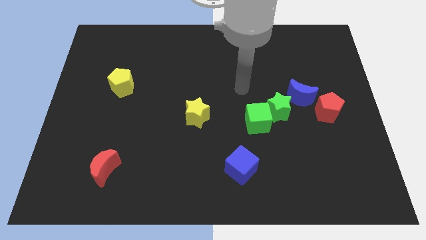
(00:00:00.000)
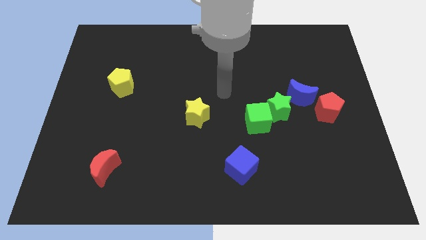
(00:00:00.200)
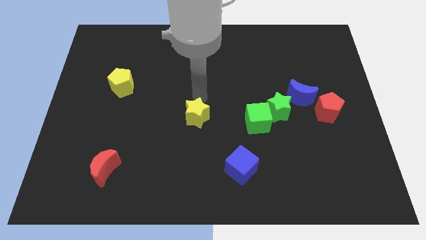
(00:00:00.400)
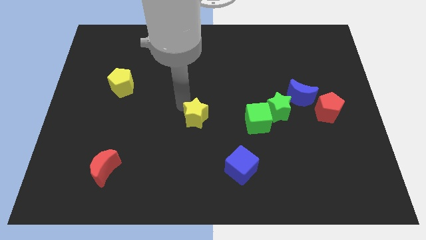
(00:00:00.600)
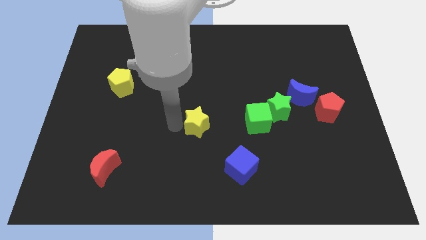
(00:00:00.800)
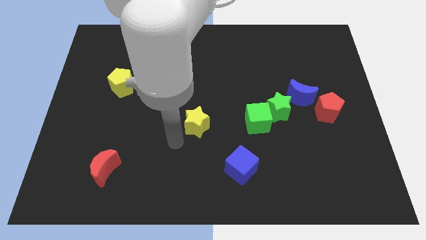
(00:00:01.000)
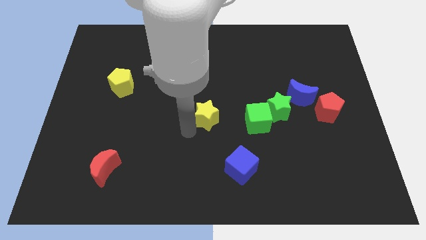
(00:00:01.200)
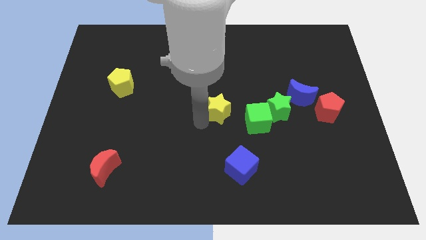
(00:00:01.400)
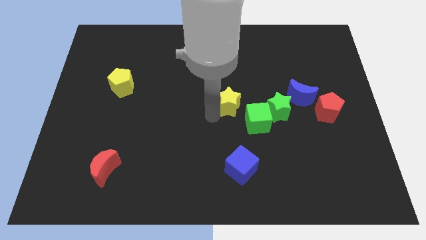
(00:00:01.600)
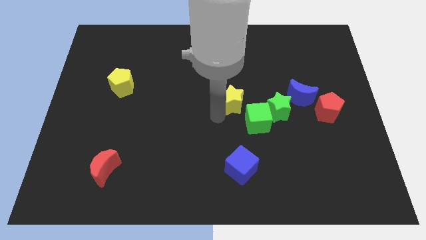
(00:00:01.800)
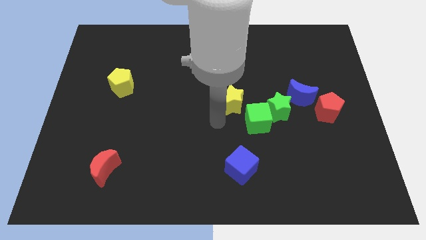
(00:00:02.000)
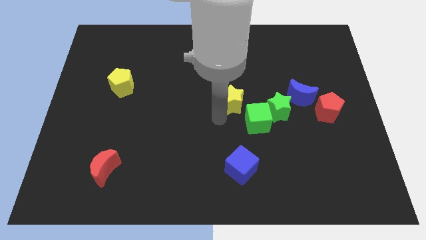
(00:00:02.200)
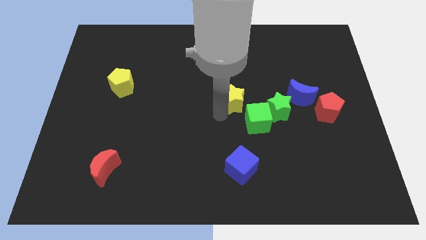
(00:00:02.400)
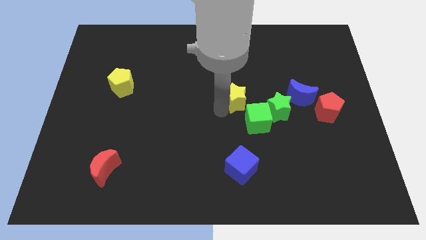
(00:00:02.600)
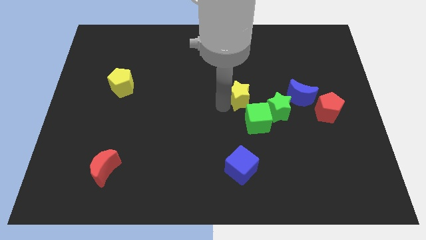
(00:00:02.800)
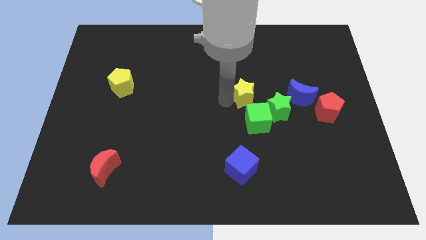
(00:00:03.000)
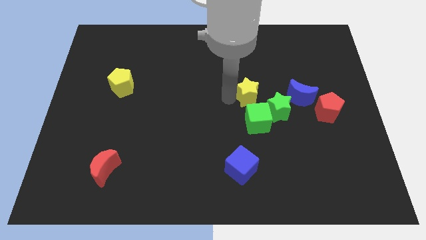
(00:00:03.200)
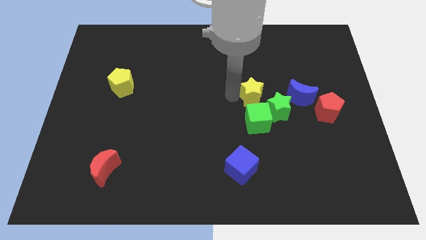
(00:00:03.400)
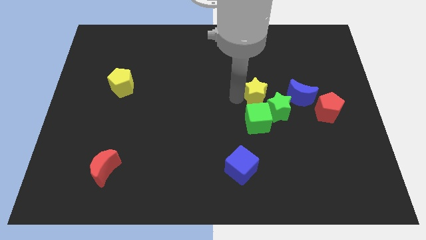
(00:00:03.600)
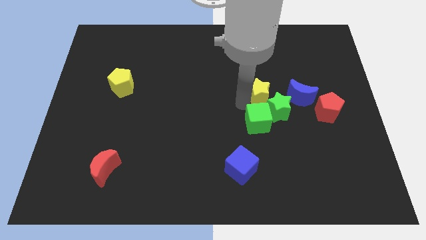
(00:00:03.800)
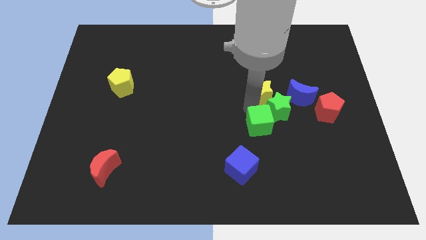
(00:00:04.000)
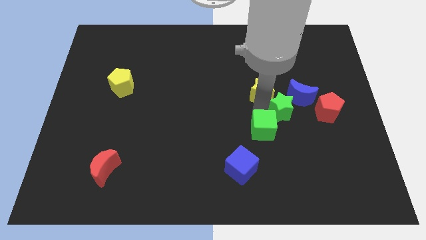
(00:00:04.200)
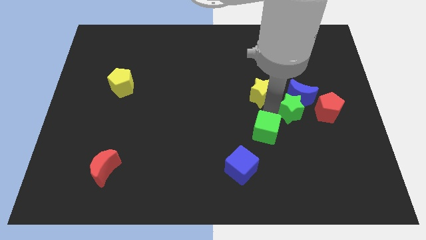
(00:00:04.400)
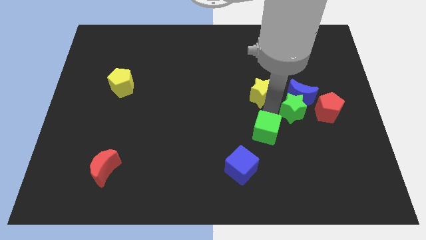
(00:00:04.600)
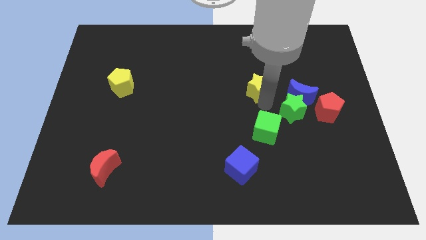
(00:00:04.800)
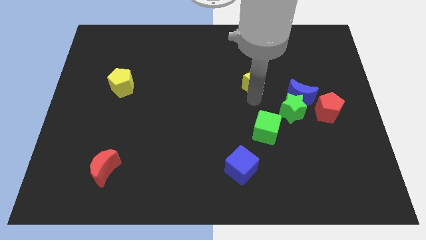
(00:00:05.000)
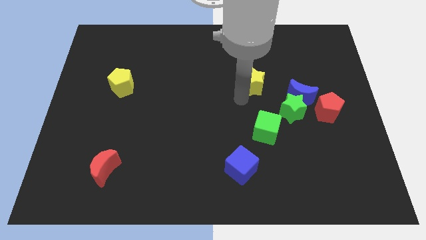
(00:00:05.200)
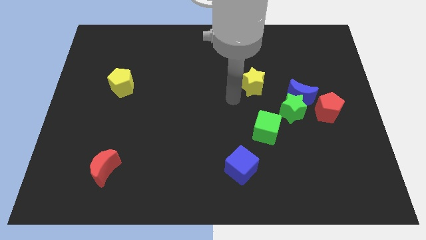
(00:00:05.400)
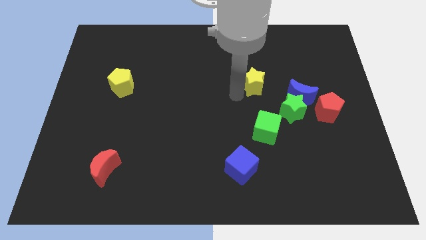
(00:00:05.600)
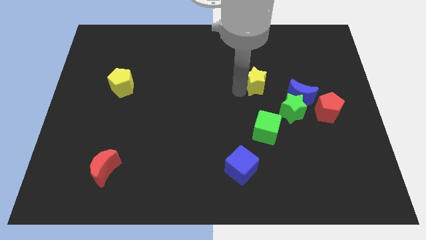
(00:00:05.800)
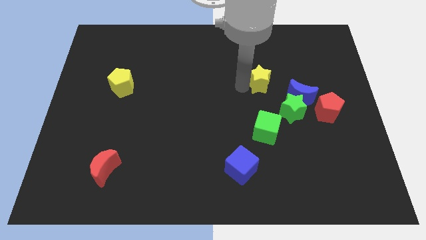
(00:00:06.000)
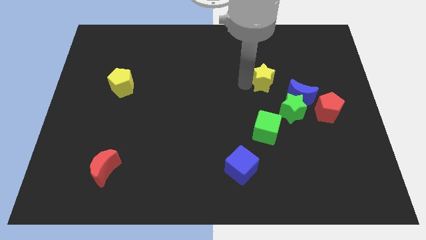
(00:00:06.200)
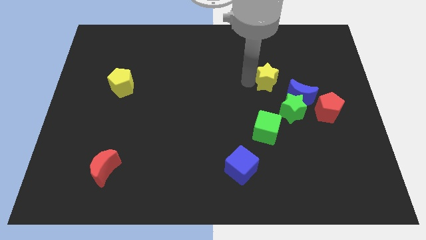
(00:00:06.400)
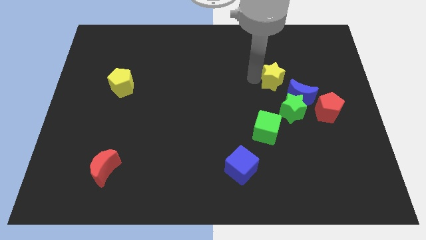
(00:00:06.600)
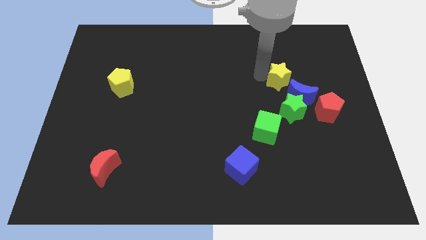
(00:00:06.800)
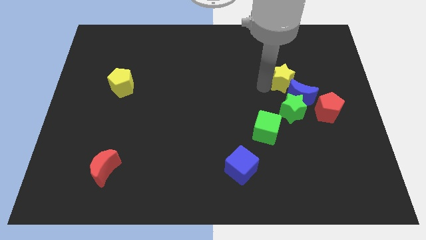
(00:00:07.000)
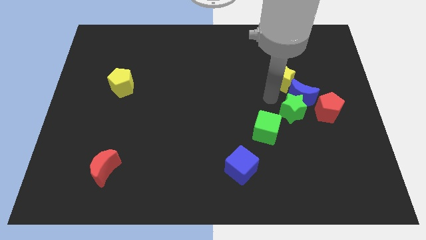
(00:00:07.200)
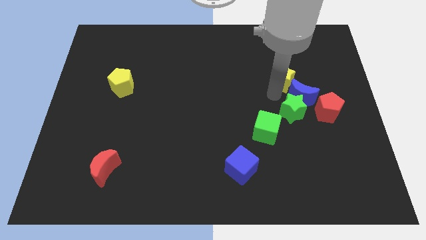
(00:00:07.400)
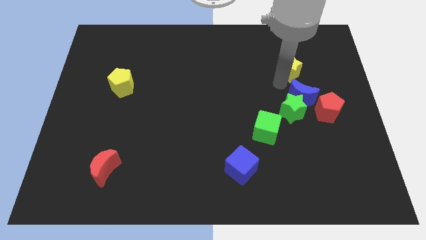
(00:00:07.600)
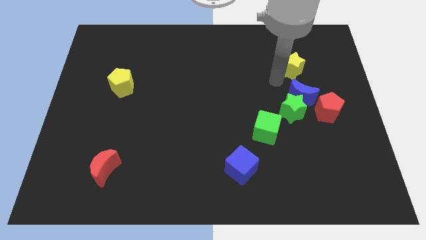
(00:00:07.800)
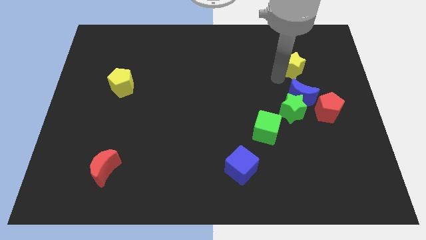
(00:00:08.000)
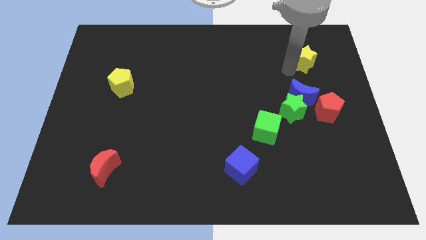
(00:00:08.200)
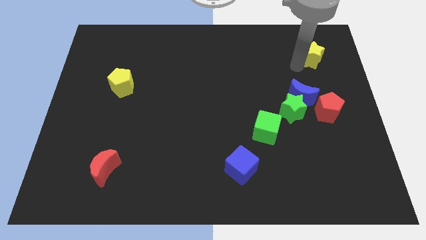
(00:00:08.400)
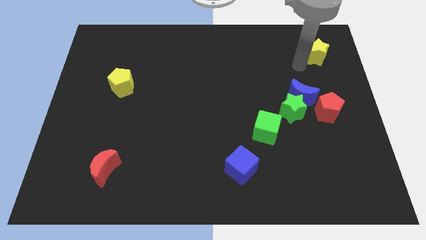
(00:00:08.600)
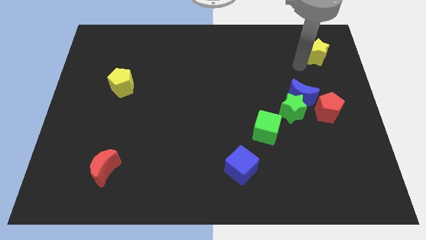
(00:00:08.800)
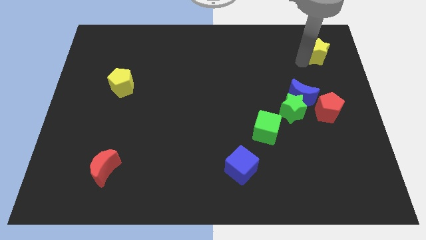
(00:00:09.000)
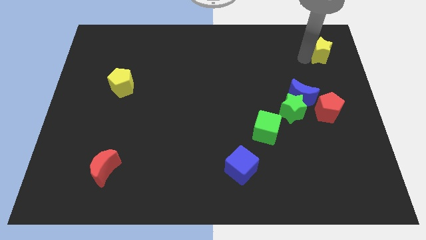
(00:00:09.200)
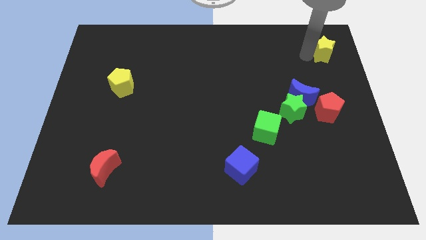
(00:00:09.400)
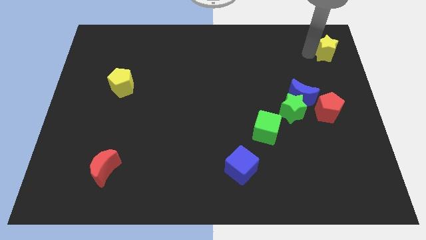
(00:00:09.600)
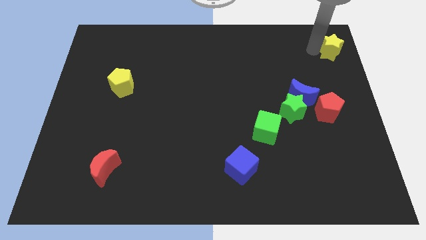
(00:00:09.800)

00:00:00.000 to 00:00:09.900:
put the yellow star to the top right

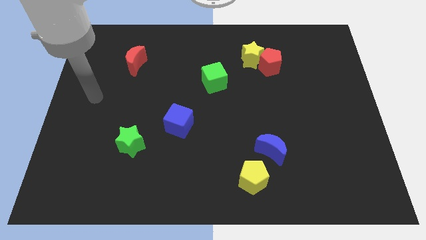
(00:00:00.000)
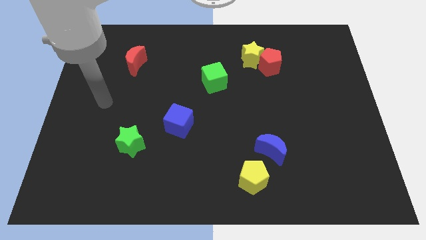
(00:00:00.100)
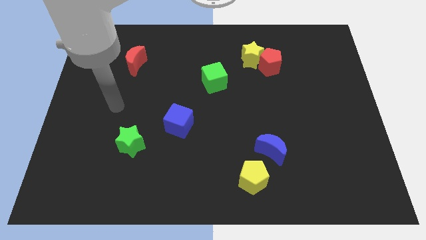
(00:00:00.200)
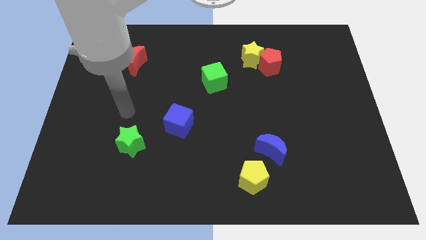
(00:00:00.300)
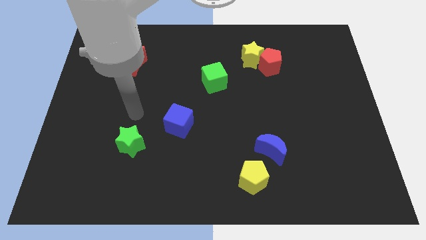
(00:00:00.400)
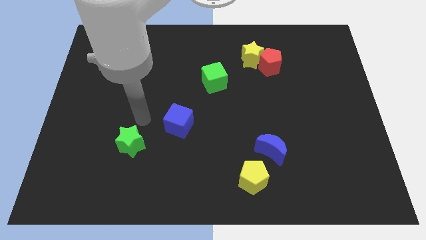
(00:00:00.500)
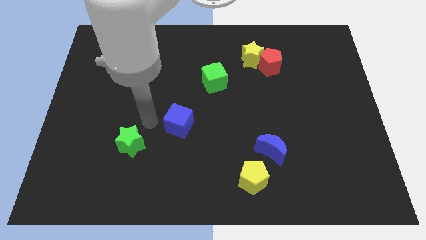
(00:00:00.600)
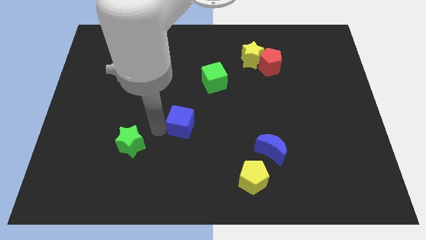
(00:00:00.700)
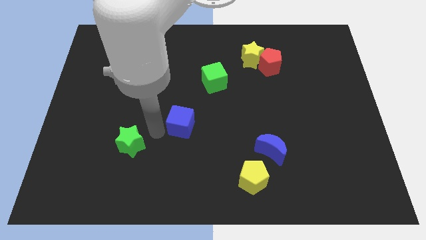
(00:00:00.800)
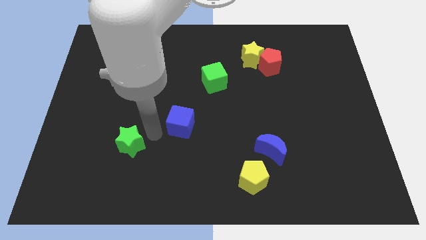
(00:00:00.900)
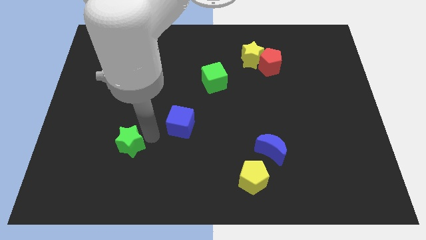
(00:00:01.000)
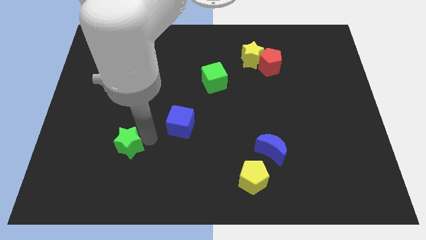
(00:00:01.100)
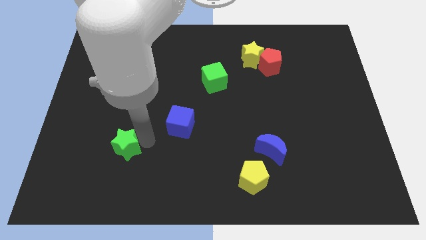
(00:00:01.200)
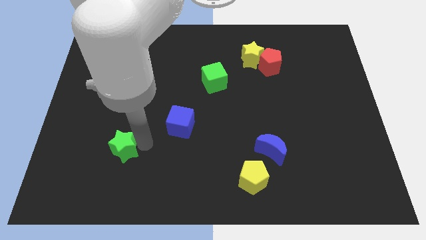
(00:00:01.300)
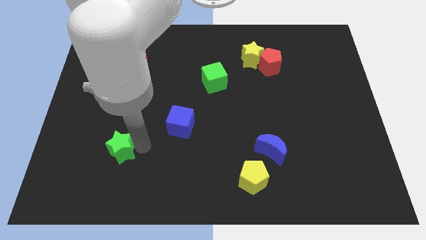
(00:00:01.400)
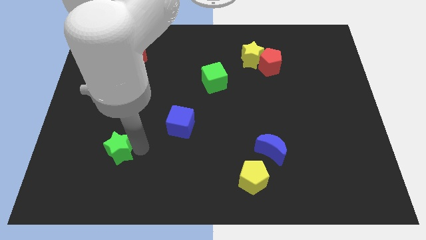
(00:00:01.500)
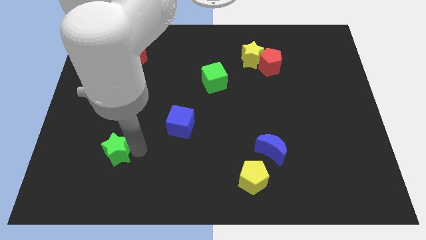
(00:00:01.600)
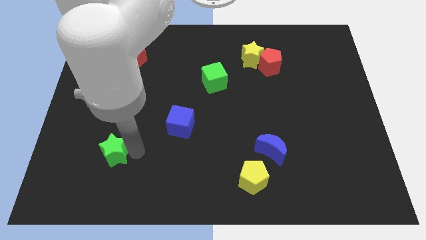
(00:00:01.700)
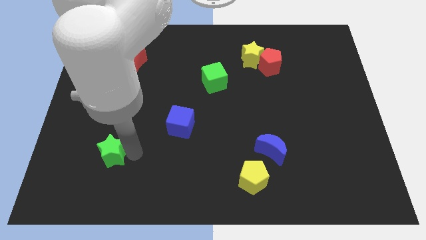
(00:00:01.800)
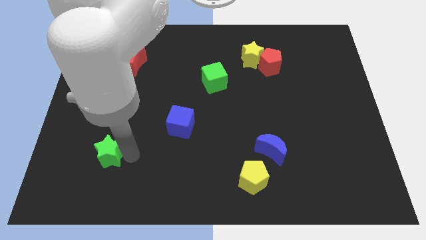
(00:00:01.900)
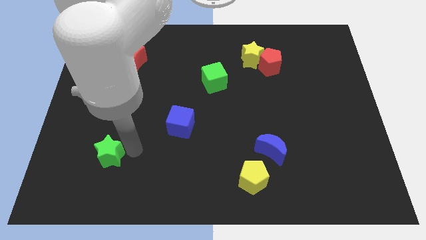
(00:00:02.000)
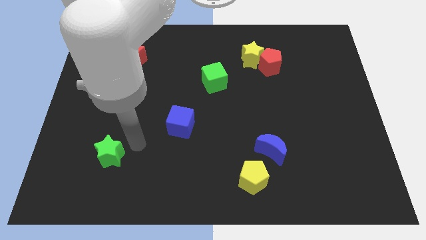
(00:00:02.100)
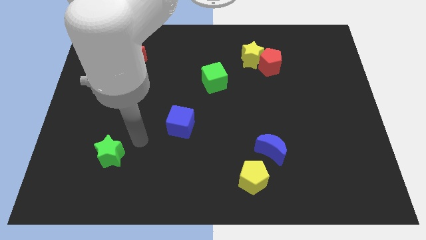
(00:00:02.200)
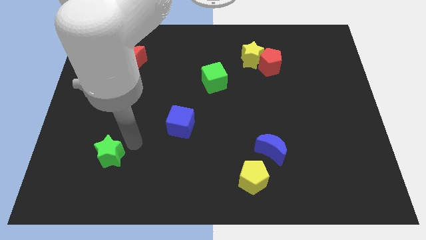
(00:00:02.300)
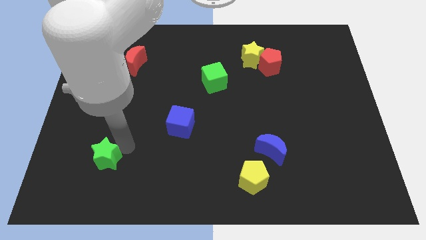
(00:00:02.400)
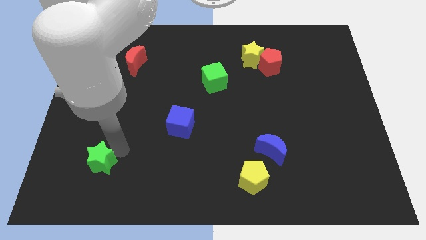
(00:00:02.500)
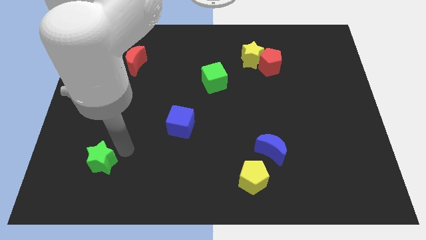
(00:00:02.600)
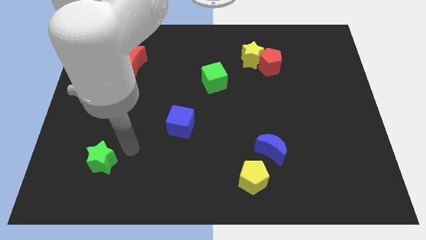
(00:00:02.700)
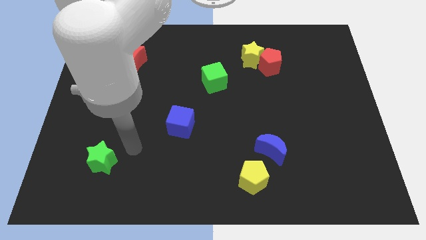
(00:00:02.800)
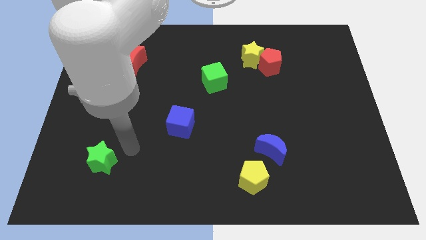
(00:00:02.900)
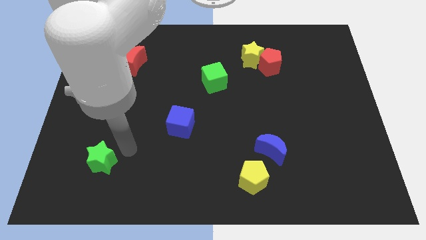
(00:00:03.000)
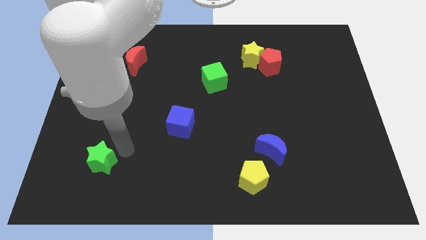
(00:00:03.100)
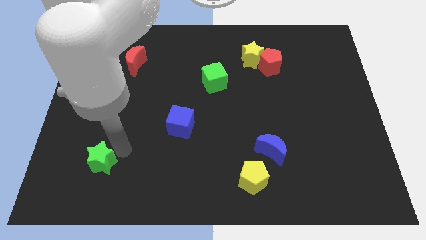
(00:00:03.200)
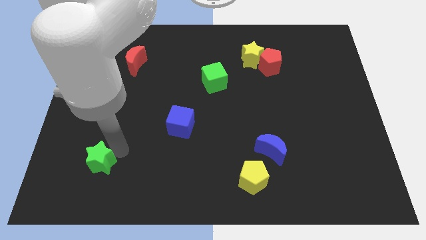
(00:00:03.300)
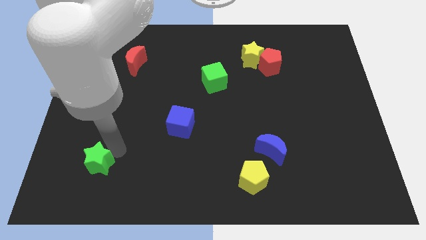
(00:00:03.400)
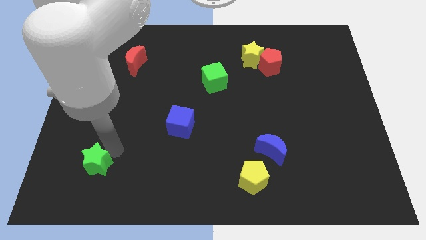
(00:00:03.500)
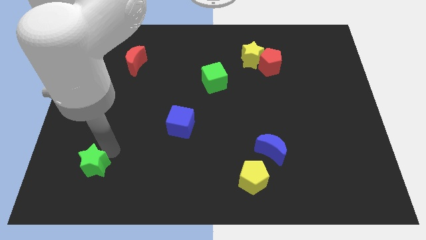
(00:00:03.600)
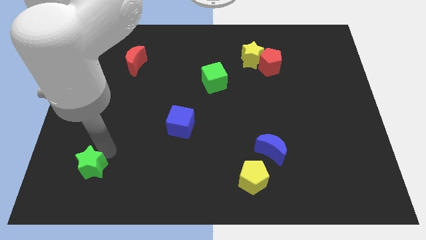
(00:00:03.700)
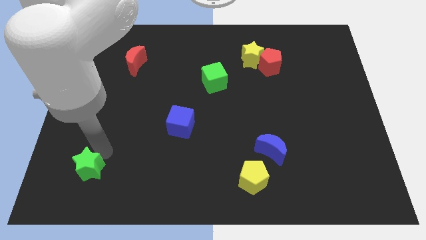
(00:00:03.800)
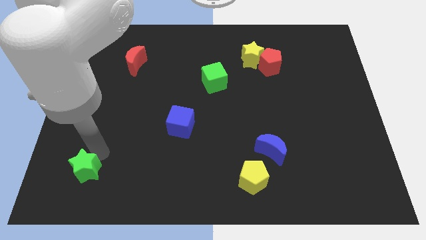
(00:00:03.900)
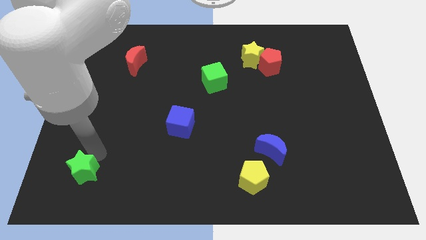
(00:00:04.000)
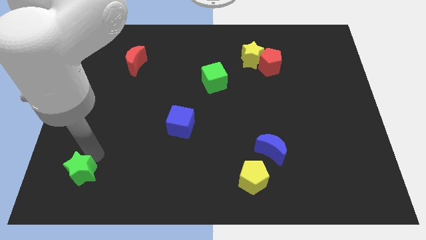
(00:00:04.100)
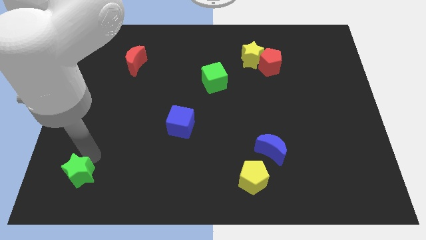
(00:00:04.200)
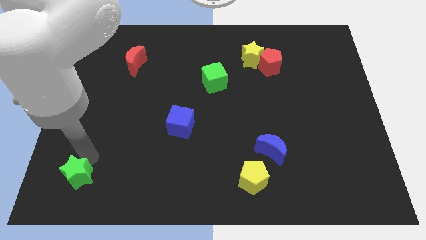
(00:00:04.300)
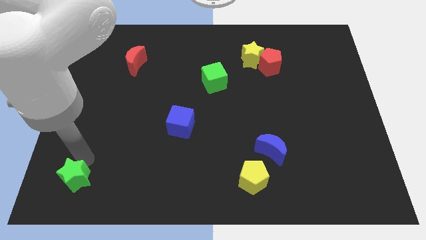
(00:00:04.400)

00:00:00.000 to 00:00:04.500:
push the green star to the bottom left corner
